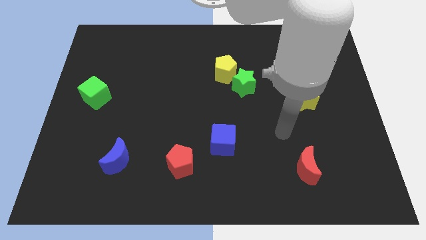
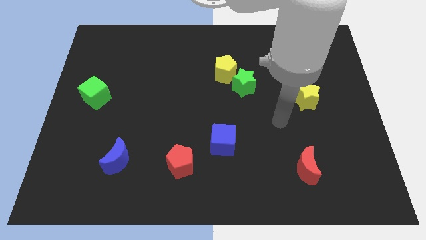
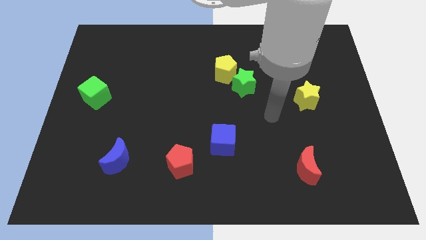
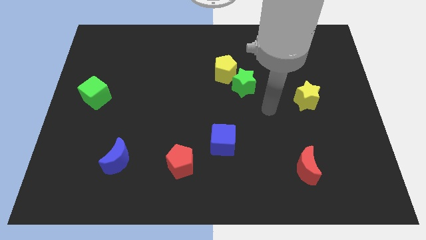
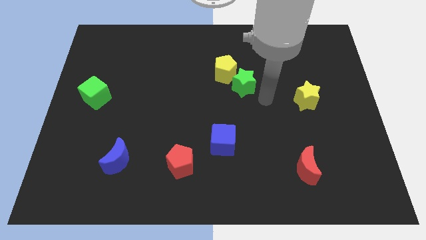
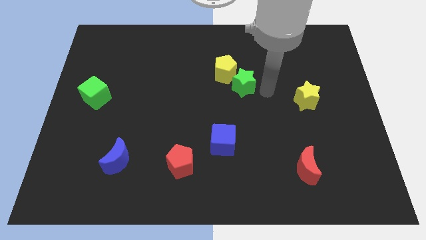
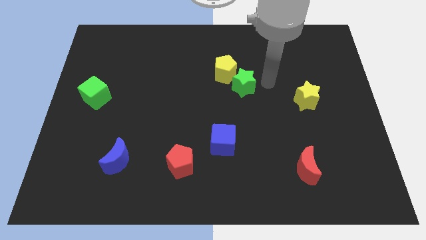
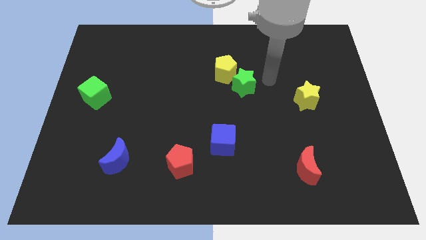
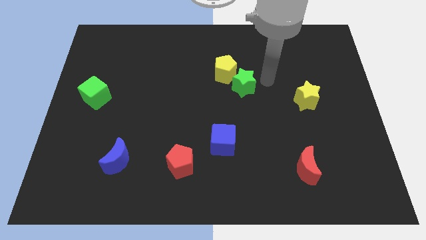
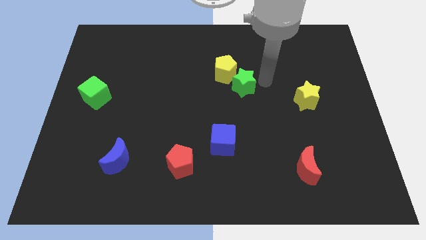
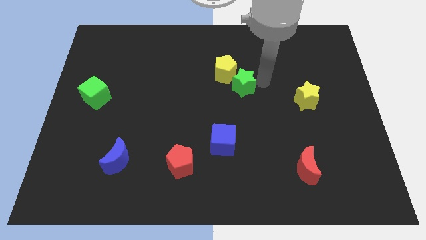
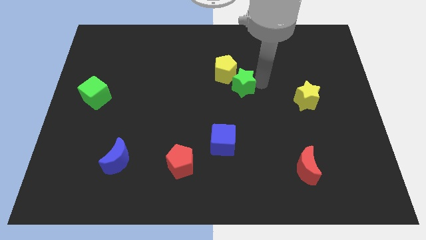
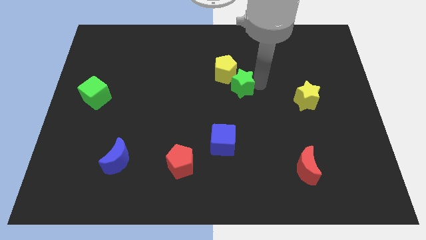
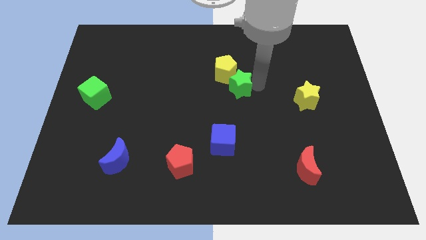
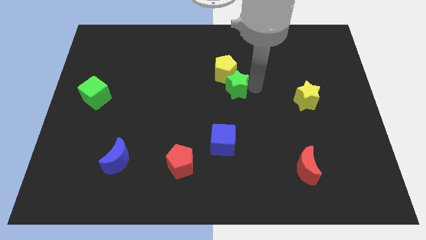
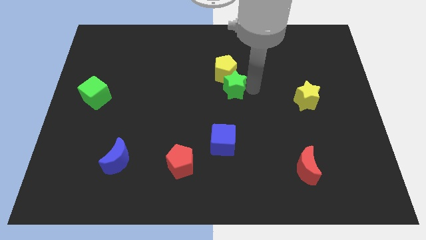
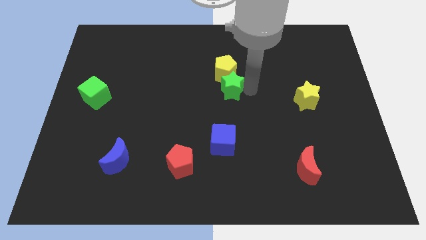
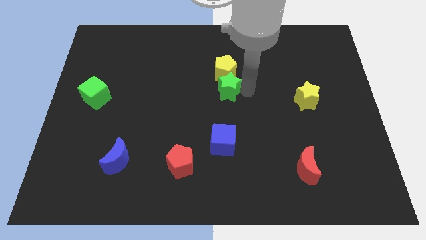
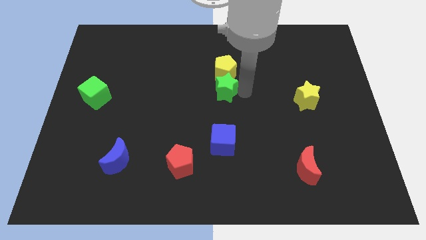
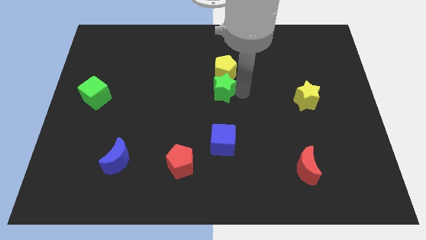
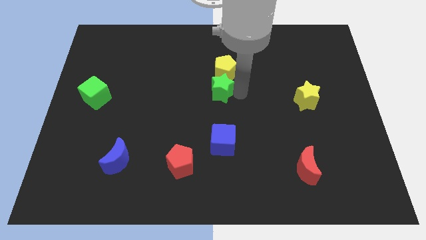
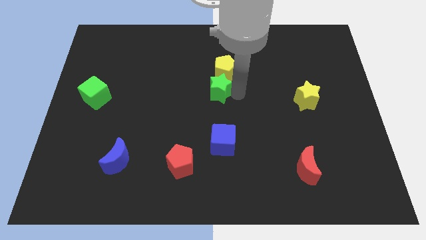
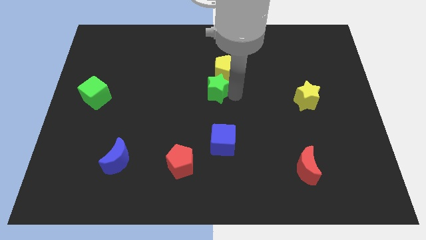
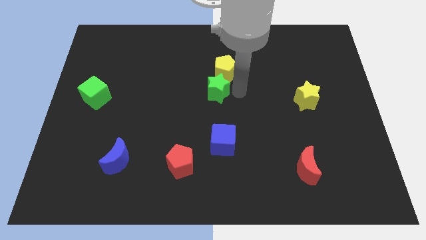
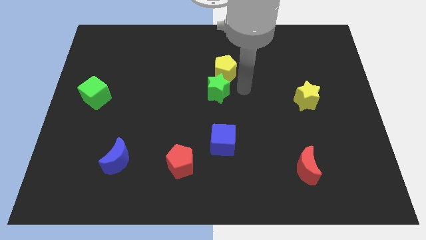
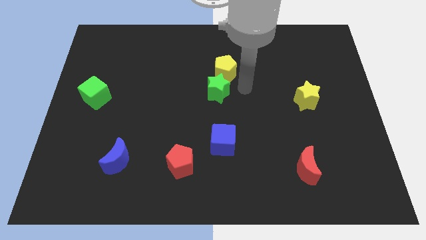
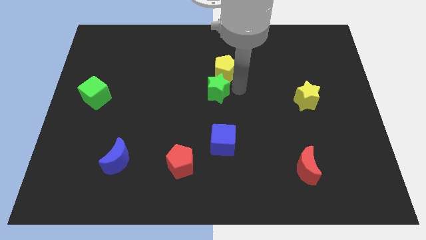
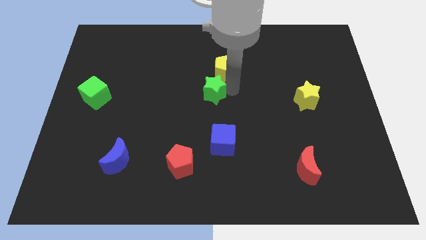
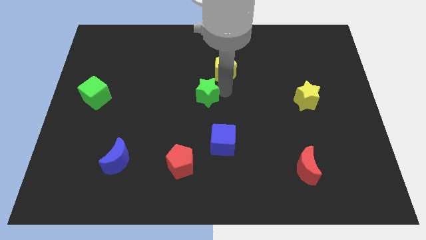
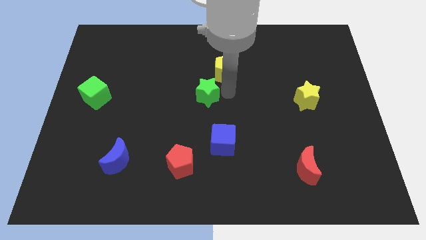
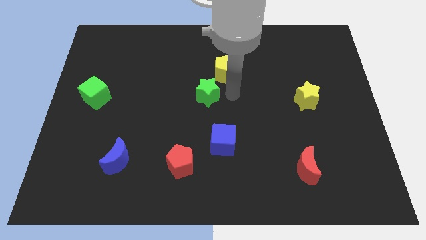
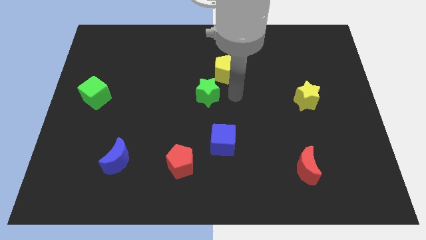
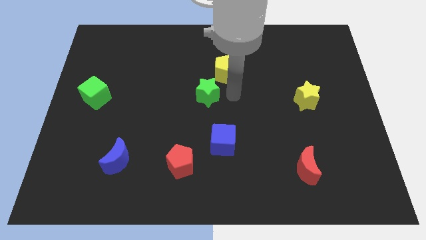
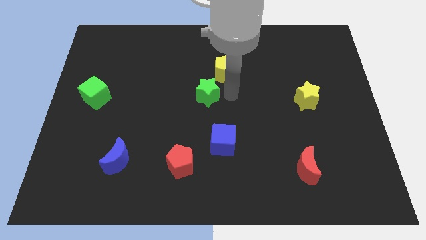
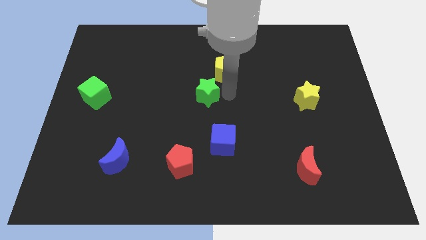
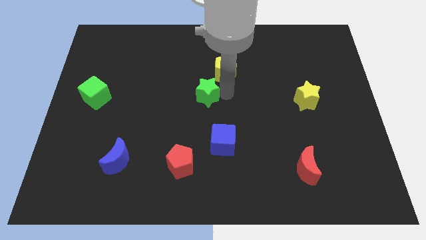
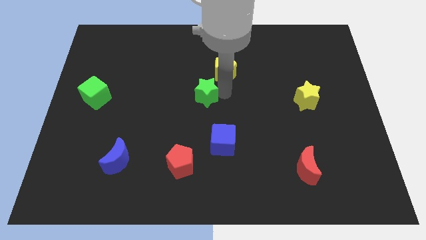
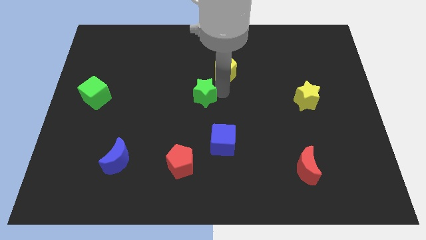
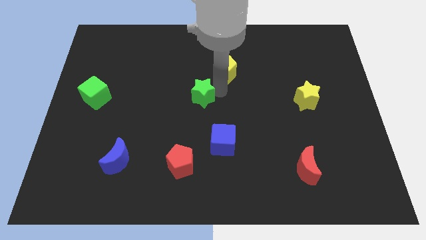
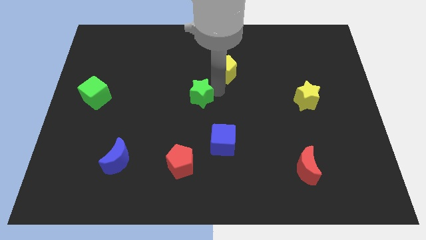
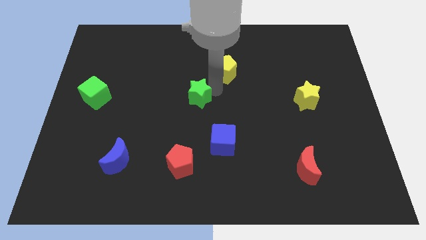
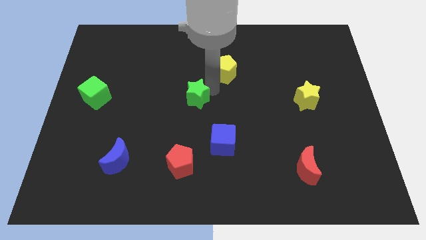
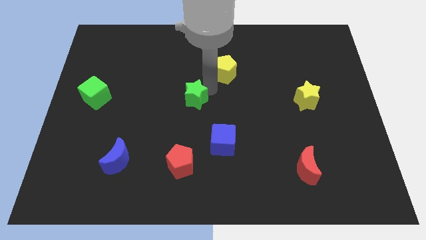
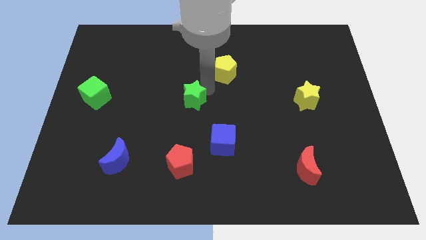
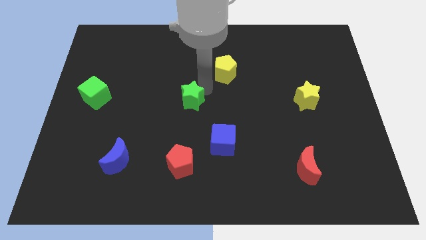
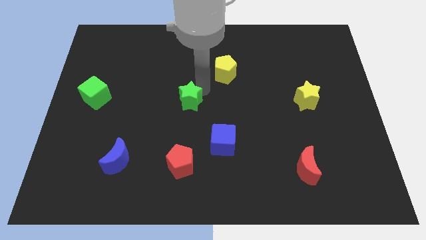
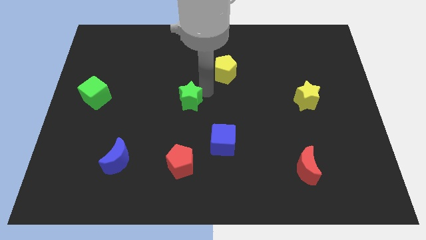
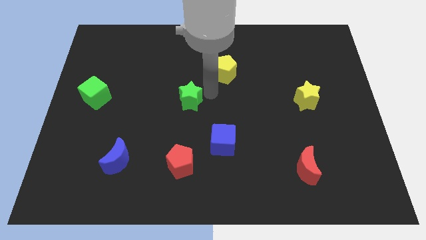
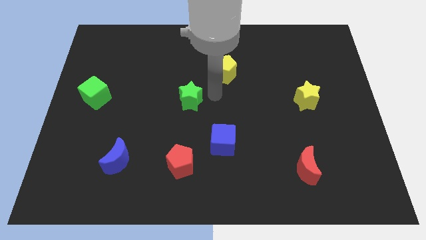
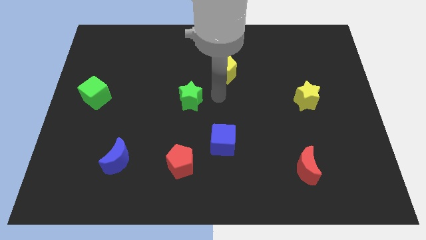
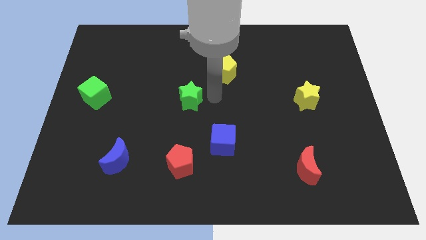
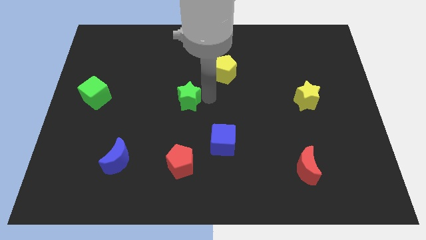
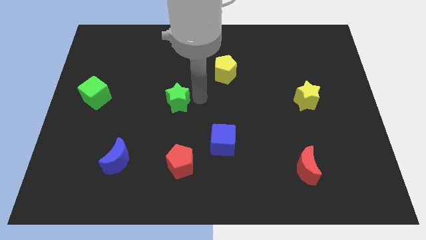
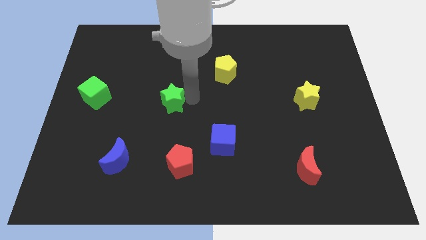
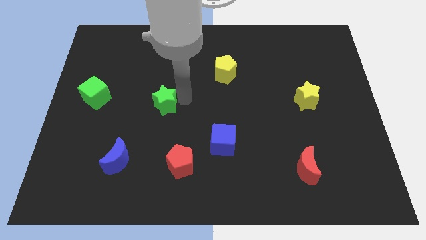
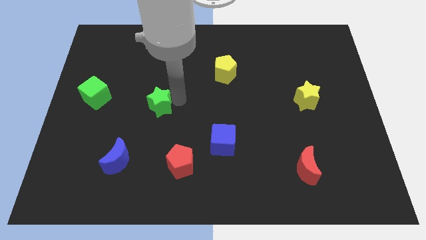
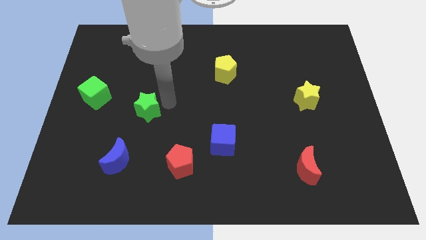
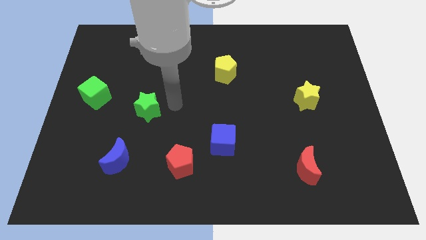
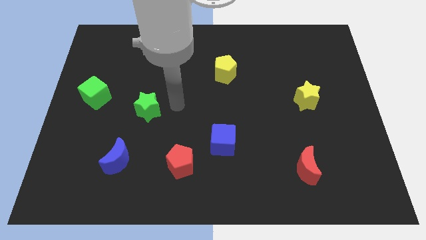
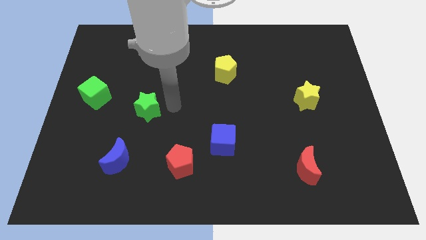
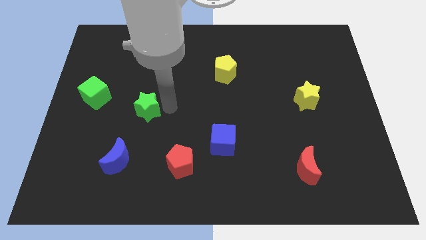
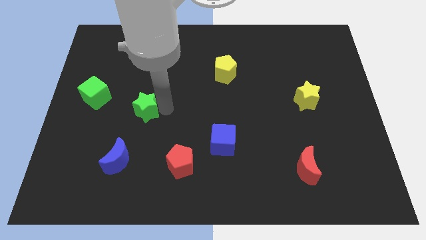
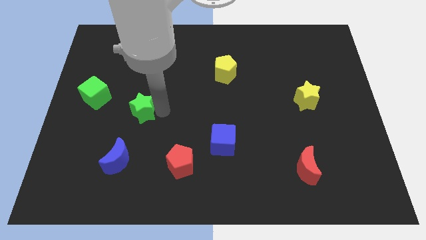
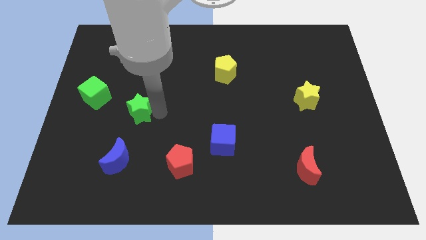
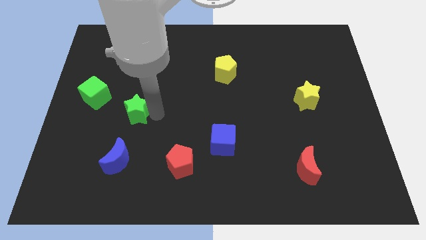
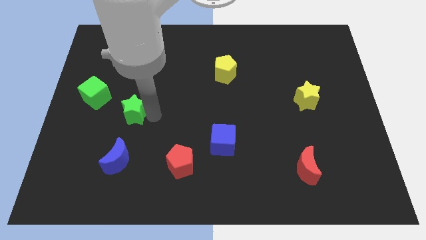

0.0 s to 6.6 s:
slide the green star diagonally down and to the right of the green cube
